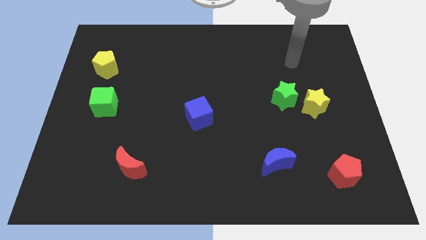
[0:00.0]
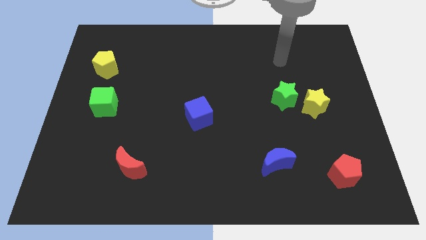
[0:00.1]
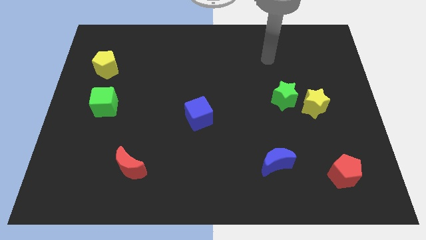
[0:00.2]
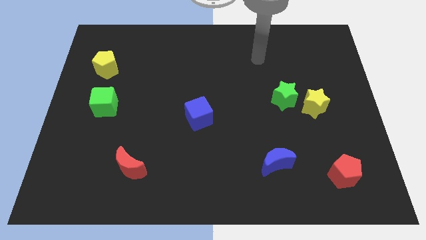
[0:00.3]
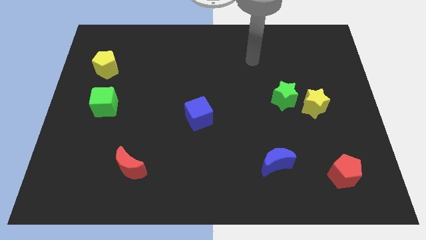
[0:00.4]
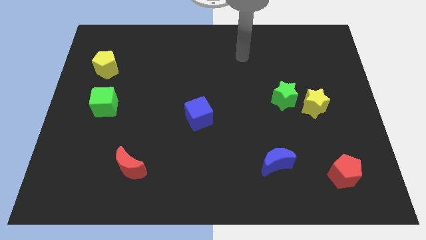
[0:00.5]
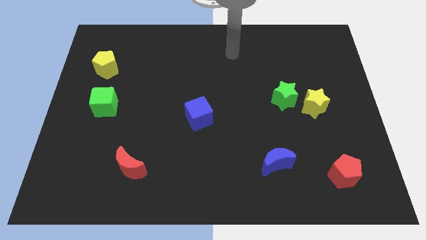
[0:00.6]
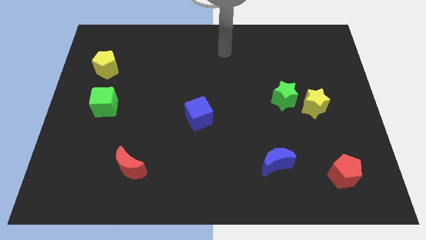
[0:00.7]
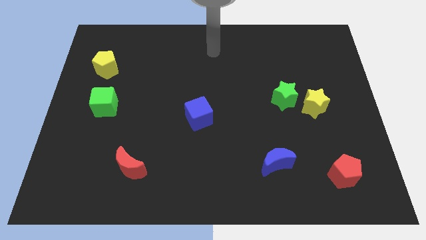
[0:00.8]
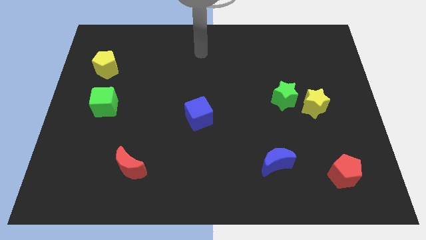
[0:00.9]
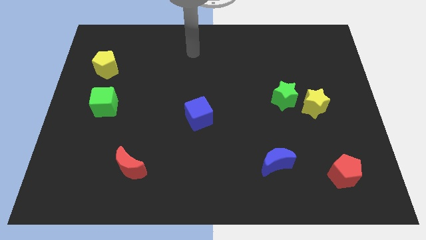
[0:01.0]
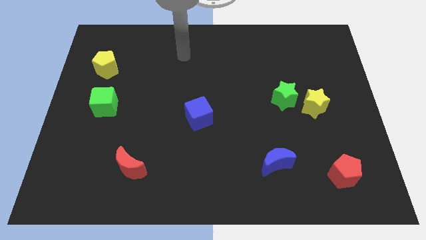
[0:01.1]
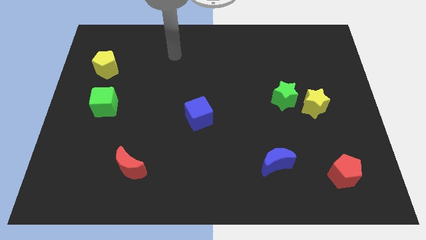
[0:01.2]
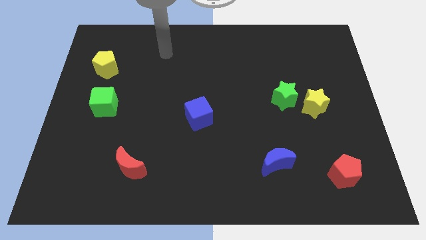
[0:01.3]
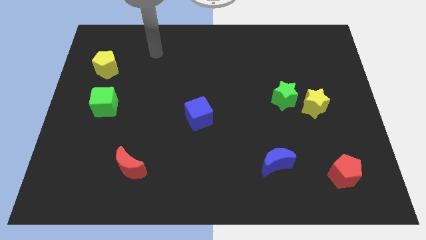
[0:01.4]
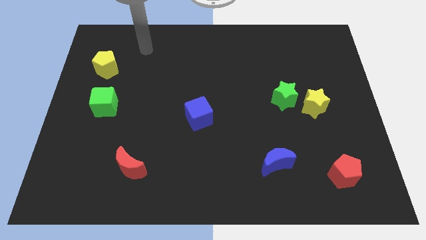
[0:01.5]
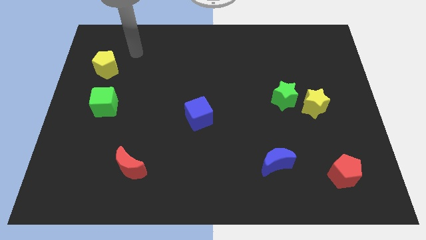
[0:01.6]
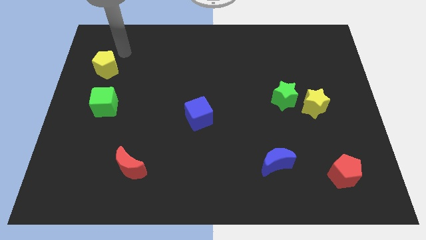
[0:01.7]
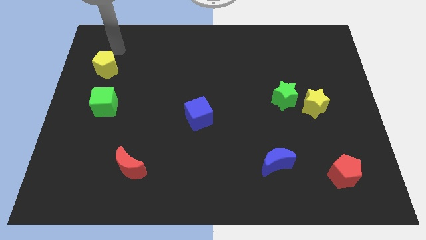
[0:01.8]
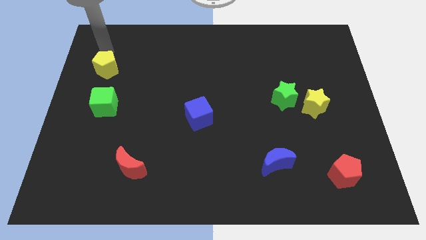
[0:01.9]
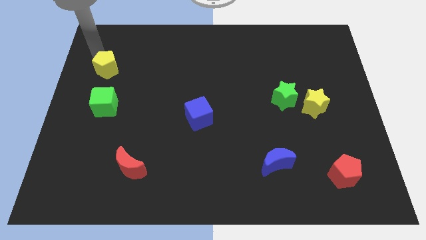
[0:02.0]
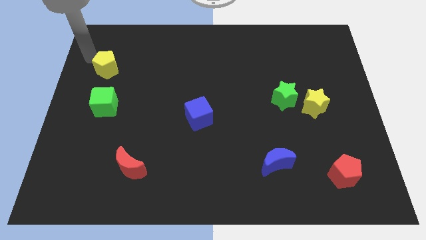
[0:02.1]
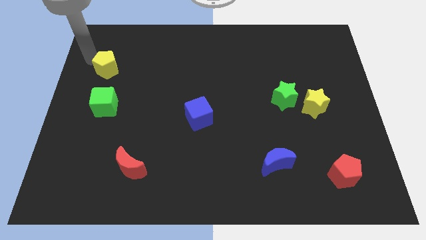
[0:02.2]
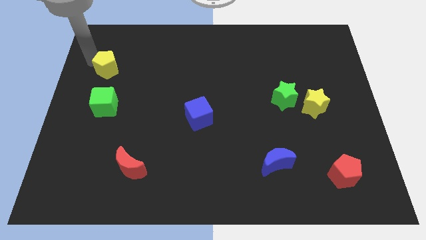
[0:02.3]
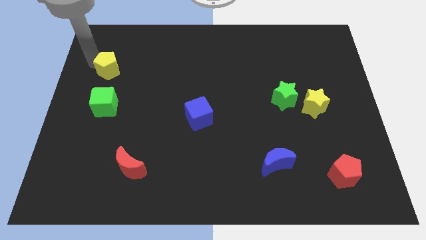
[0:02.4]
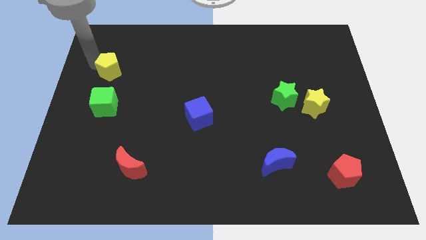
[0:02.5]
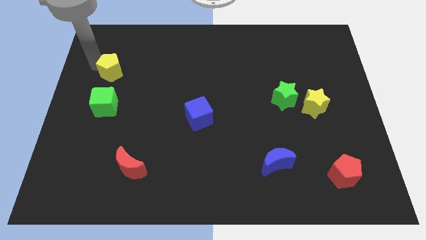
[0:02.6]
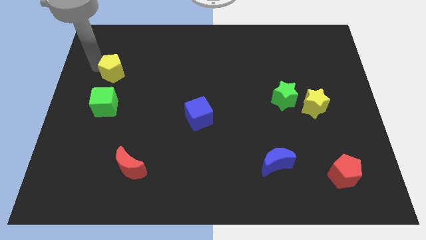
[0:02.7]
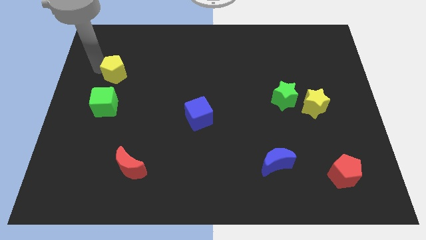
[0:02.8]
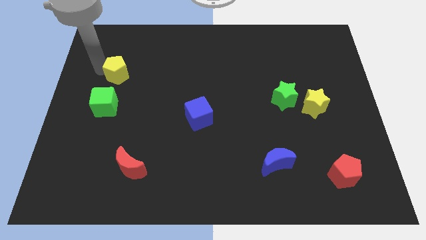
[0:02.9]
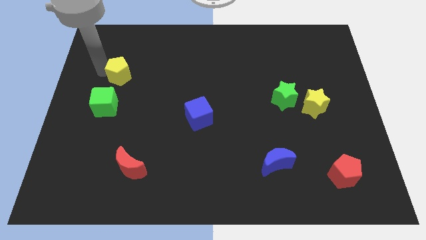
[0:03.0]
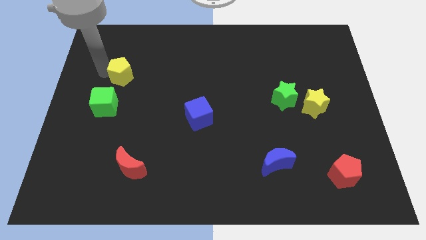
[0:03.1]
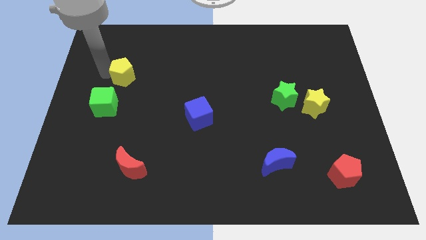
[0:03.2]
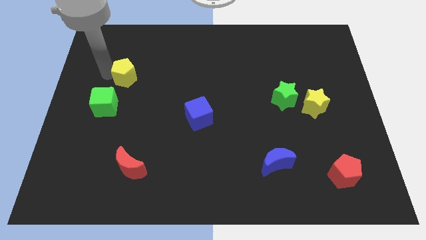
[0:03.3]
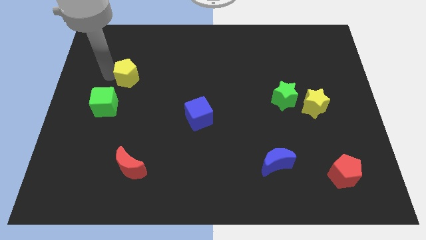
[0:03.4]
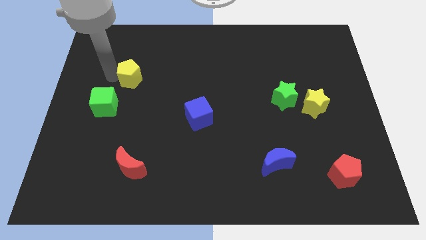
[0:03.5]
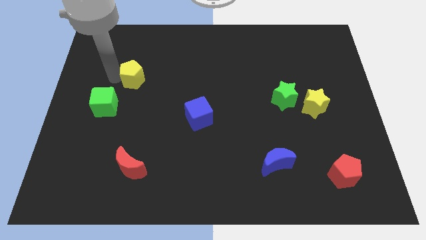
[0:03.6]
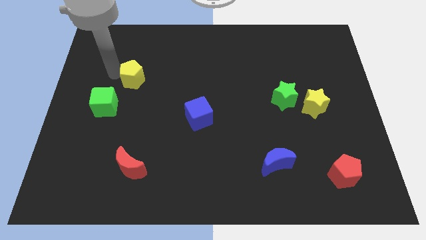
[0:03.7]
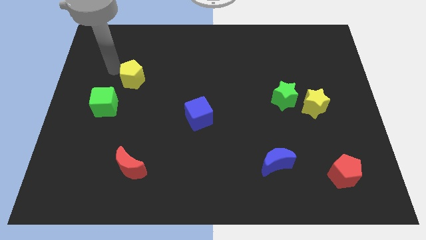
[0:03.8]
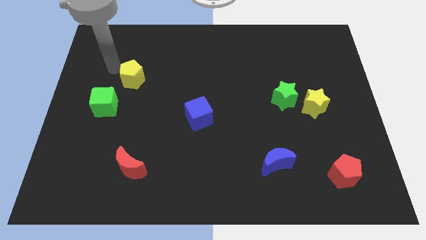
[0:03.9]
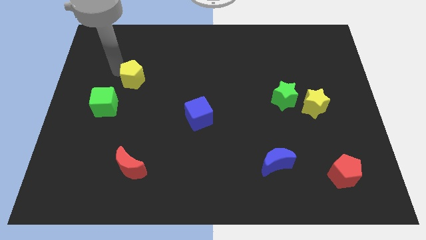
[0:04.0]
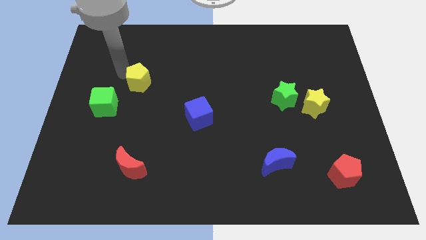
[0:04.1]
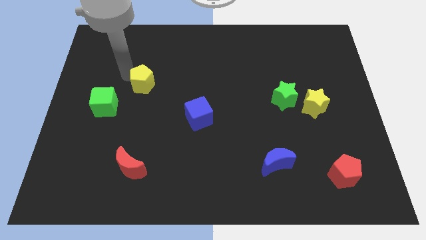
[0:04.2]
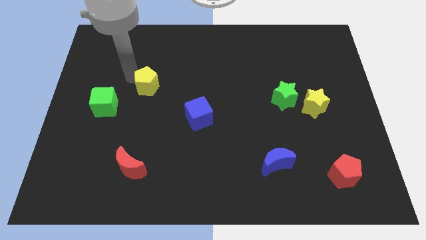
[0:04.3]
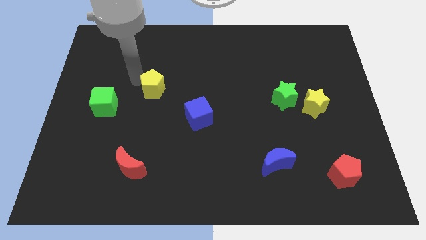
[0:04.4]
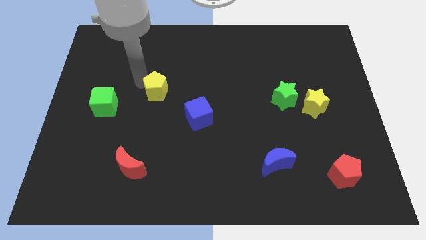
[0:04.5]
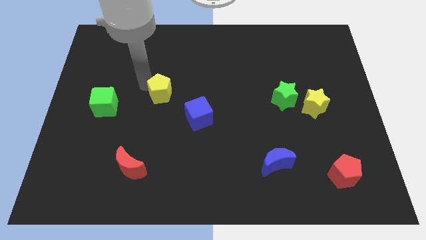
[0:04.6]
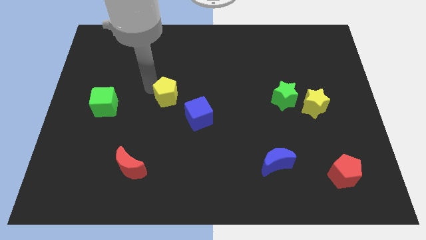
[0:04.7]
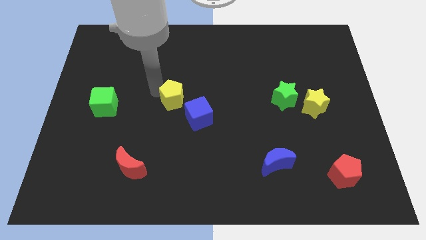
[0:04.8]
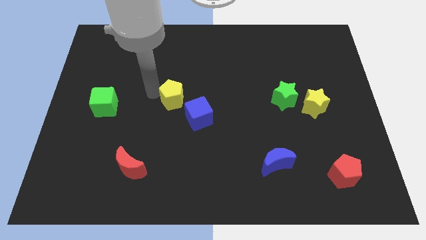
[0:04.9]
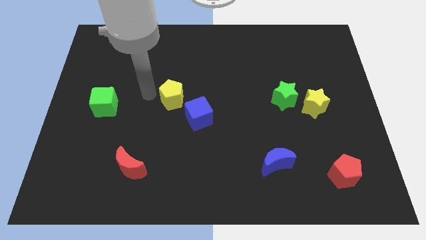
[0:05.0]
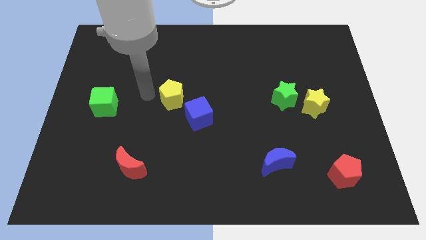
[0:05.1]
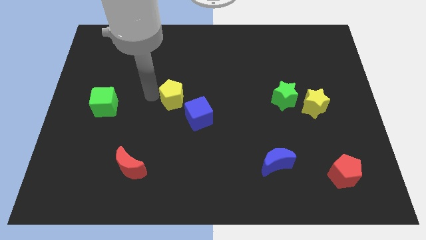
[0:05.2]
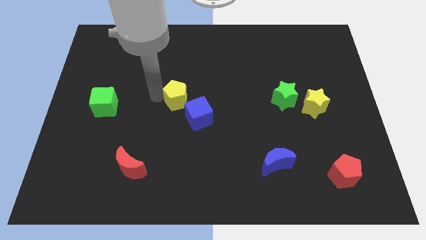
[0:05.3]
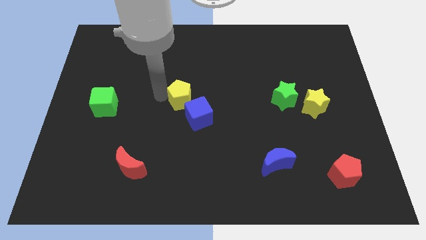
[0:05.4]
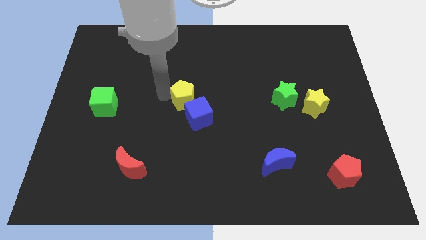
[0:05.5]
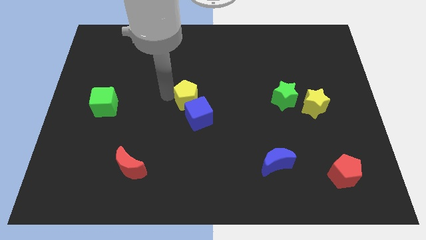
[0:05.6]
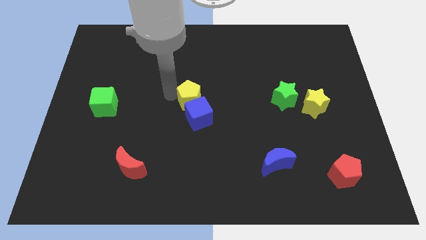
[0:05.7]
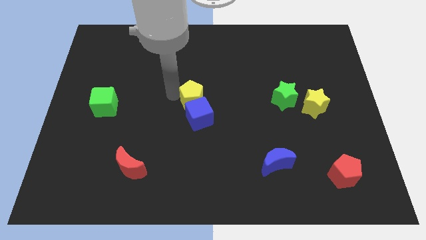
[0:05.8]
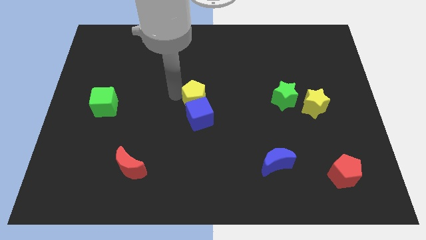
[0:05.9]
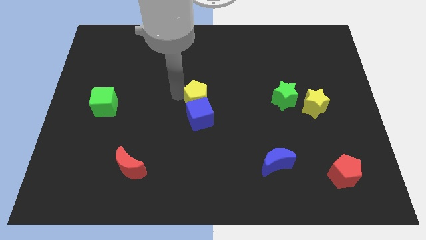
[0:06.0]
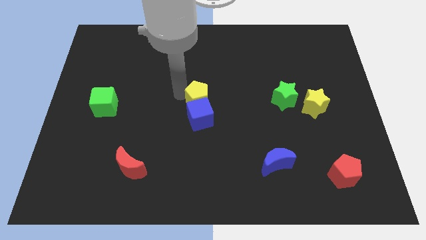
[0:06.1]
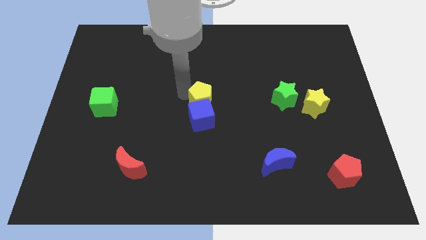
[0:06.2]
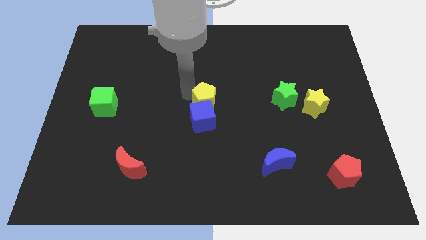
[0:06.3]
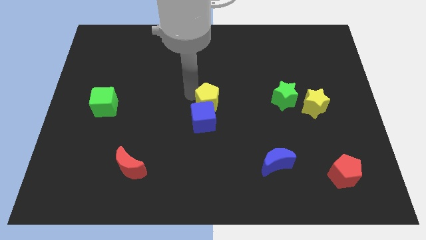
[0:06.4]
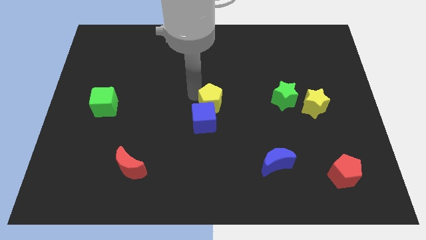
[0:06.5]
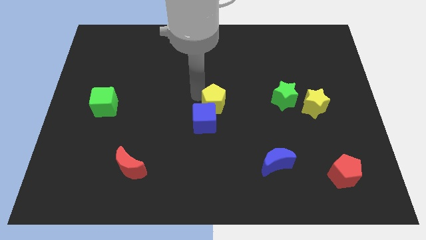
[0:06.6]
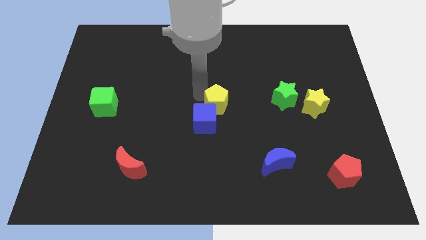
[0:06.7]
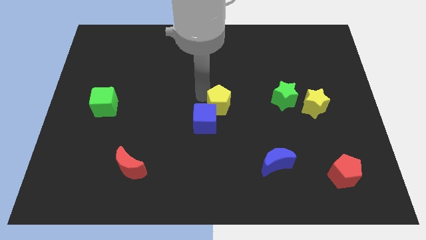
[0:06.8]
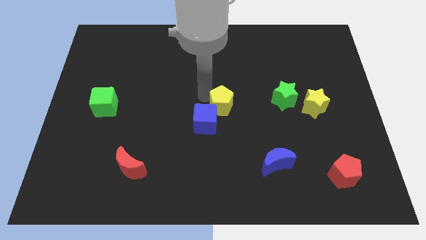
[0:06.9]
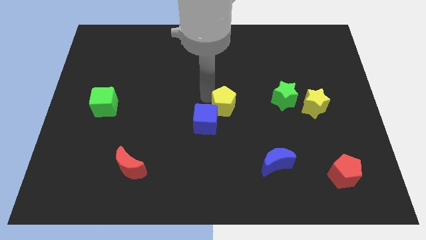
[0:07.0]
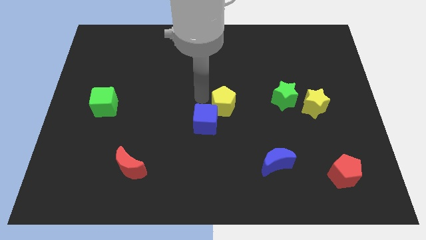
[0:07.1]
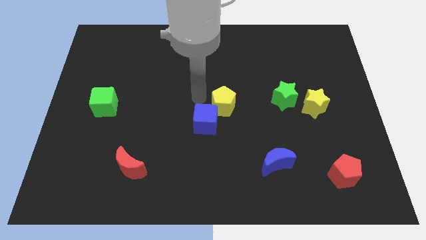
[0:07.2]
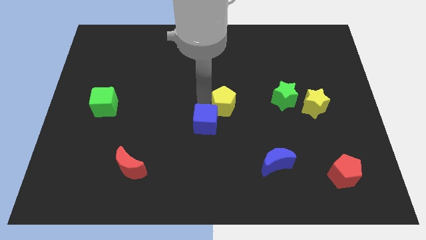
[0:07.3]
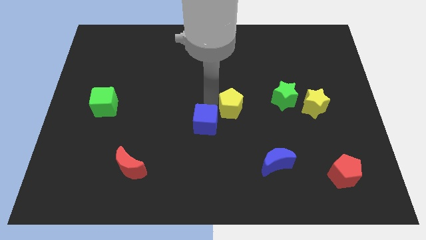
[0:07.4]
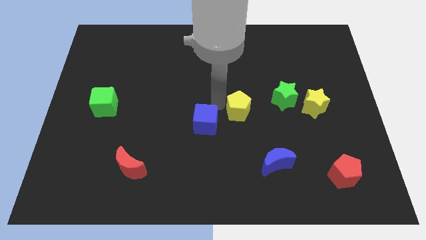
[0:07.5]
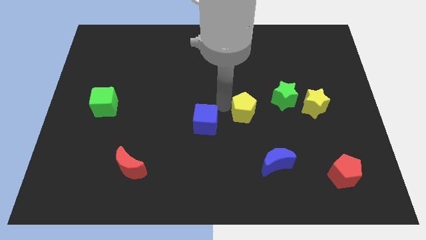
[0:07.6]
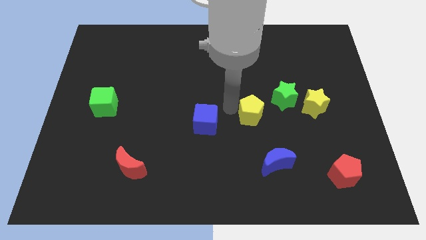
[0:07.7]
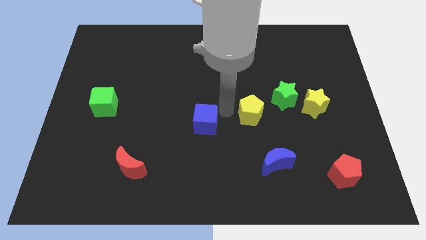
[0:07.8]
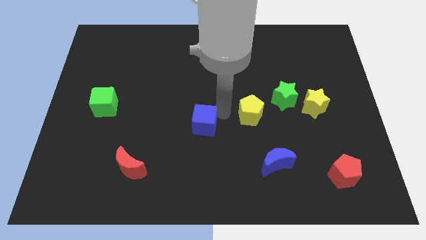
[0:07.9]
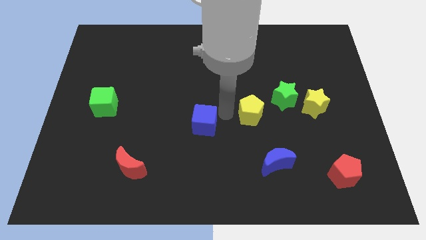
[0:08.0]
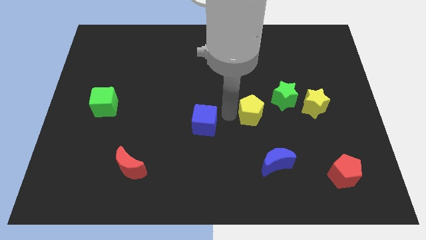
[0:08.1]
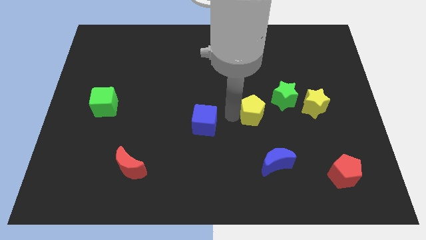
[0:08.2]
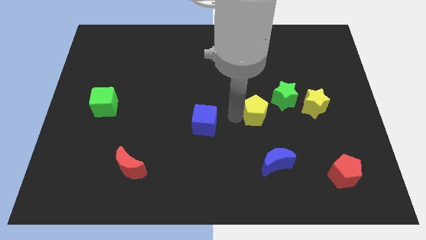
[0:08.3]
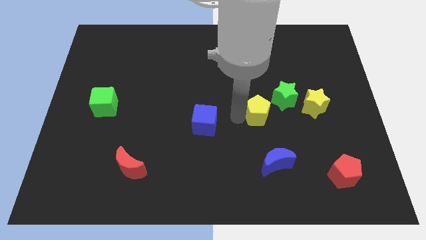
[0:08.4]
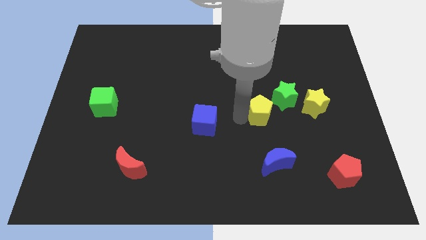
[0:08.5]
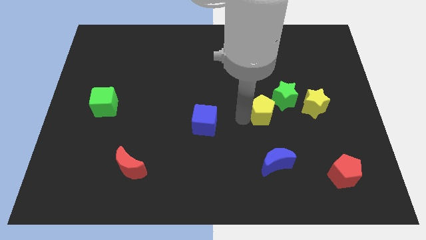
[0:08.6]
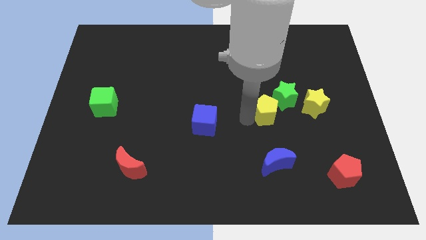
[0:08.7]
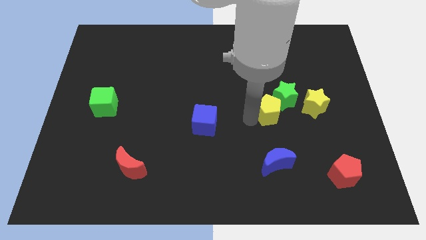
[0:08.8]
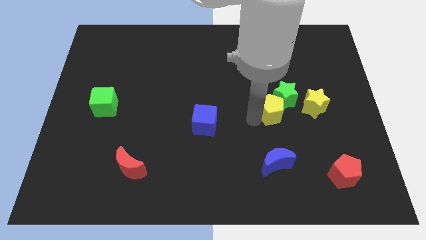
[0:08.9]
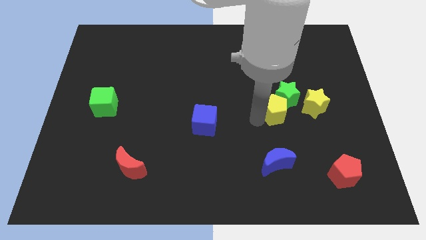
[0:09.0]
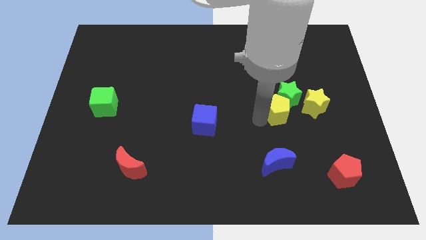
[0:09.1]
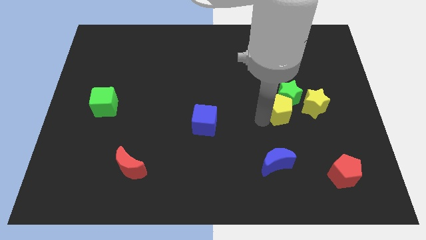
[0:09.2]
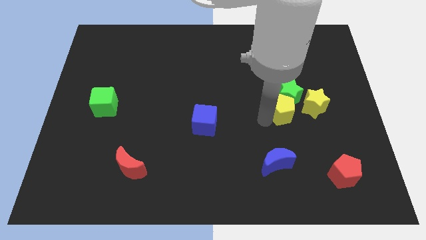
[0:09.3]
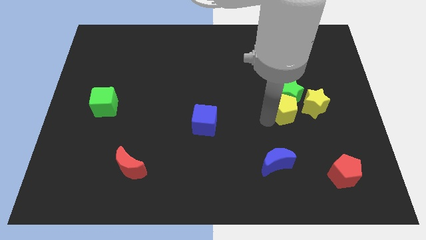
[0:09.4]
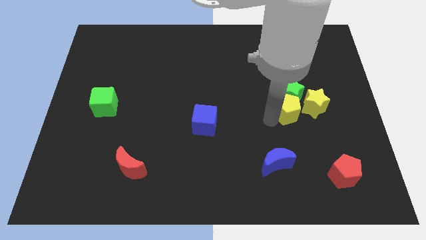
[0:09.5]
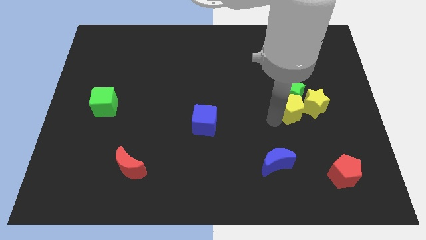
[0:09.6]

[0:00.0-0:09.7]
put the yellow pentagon next to the yellow star
